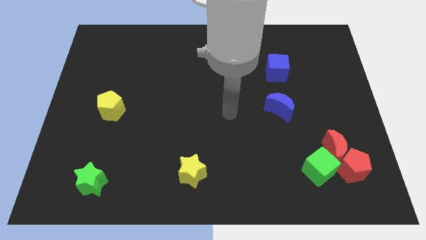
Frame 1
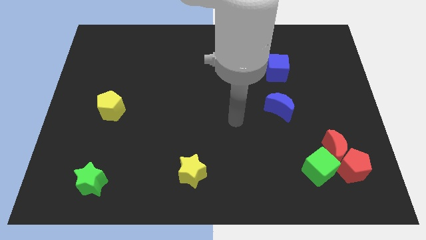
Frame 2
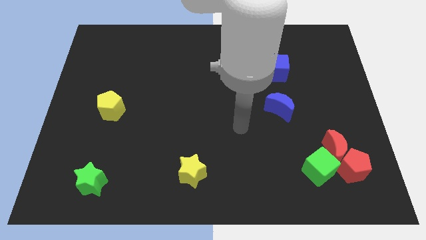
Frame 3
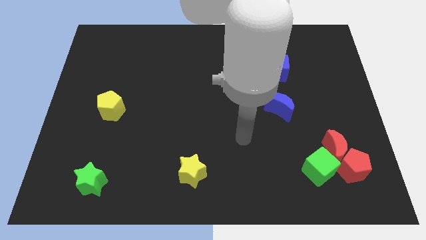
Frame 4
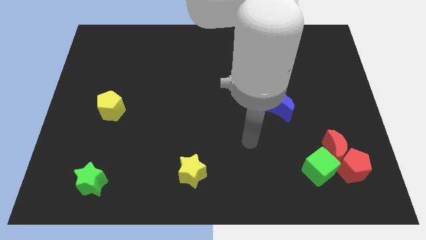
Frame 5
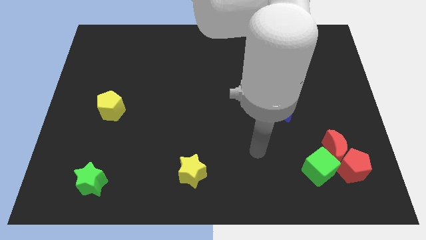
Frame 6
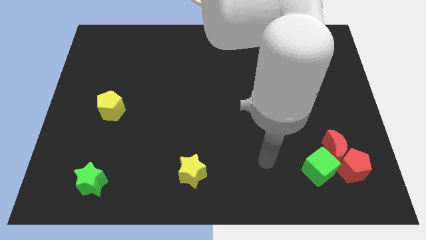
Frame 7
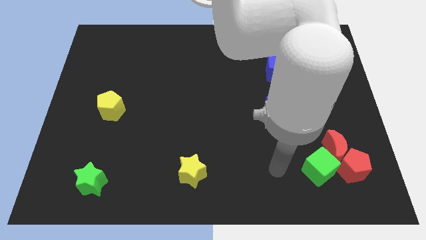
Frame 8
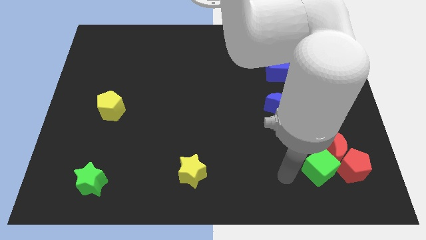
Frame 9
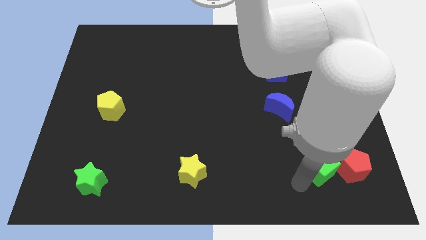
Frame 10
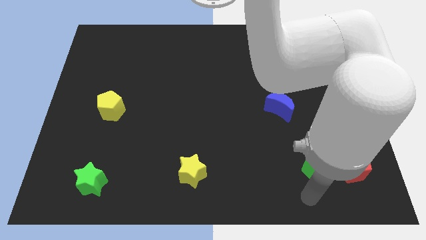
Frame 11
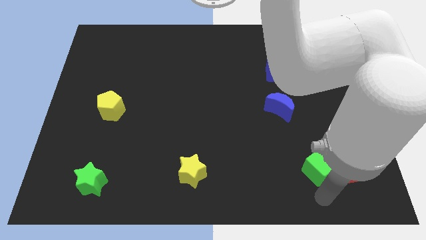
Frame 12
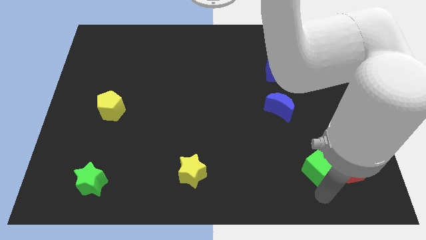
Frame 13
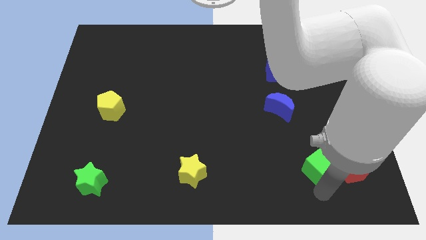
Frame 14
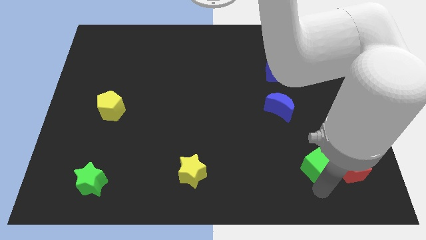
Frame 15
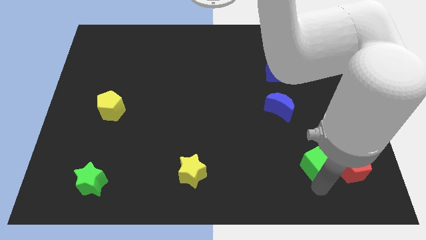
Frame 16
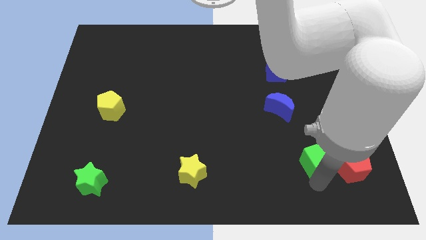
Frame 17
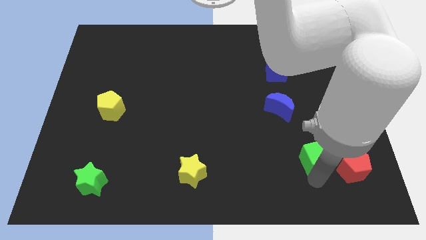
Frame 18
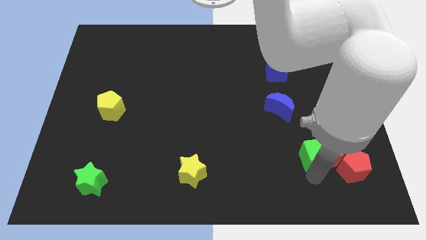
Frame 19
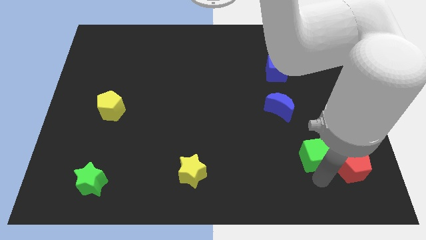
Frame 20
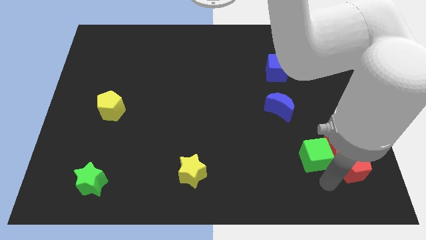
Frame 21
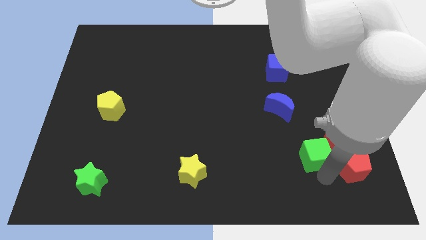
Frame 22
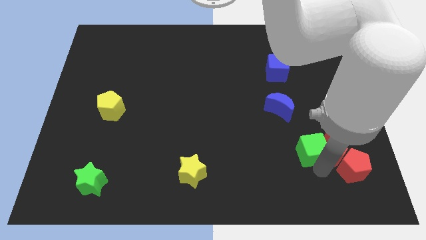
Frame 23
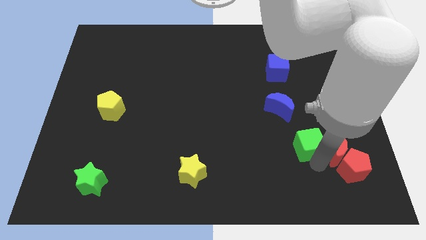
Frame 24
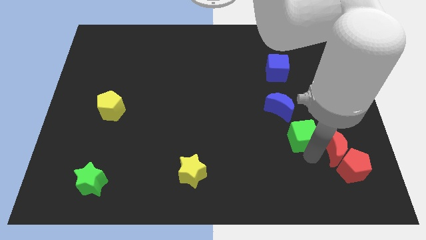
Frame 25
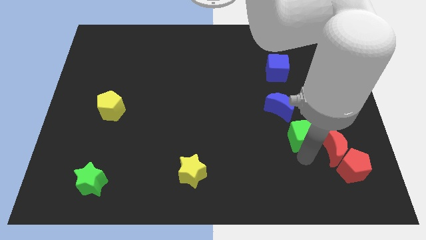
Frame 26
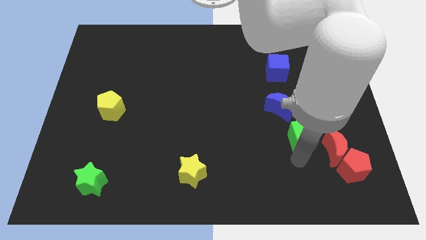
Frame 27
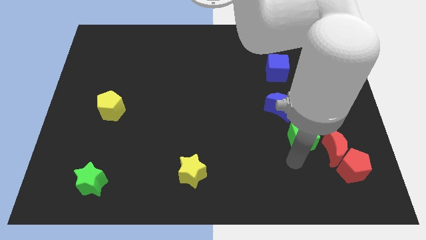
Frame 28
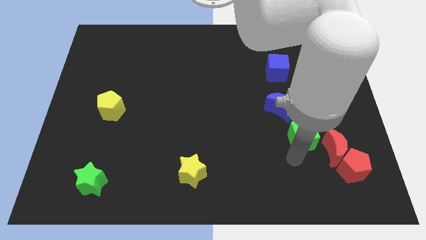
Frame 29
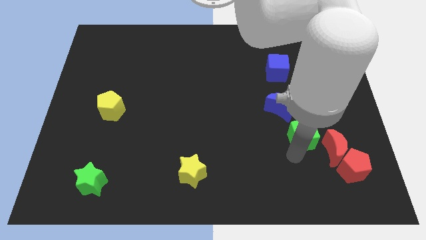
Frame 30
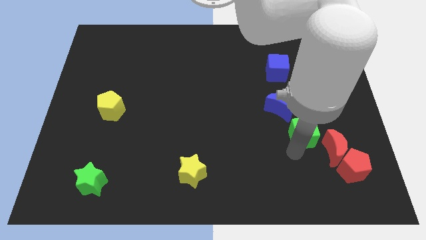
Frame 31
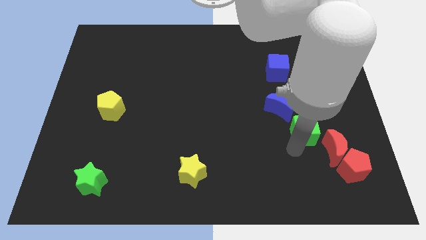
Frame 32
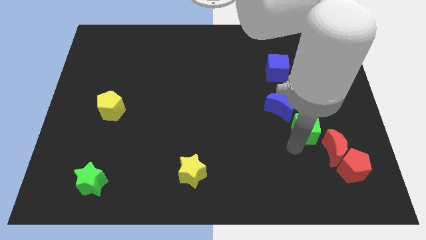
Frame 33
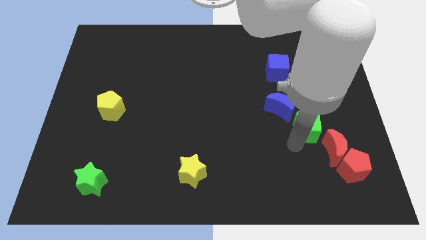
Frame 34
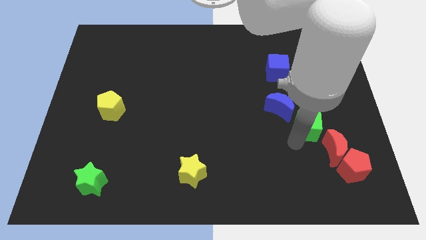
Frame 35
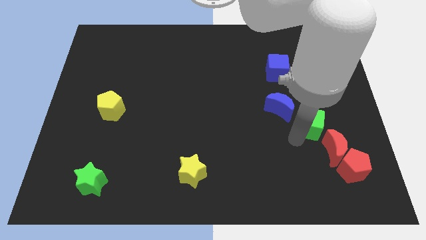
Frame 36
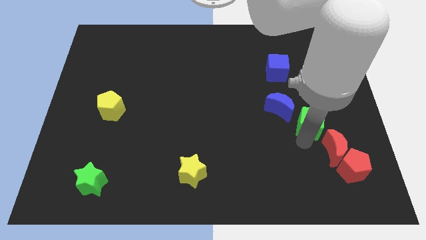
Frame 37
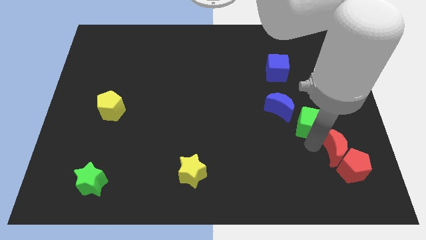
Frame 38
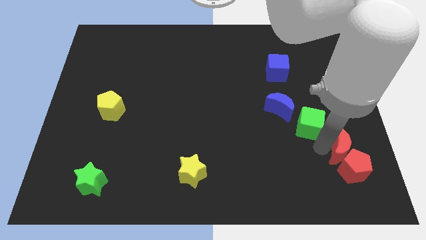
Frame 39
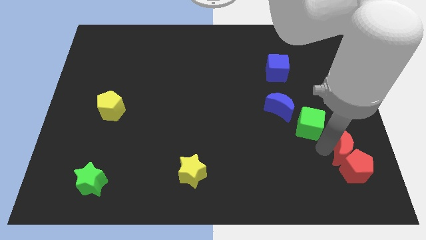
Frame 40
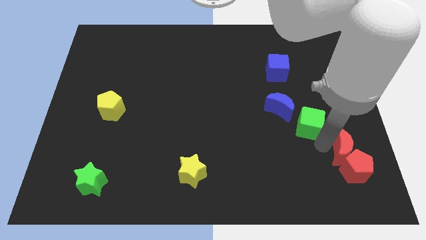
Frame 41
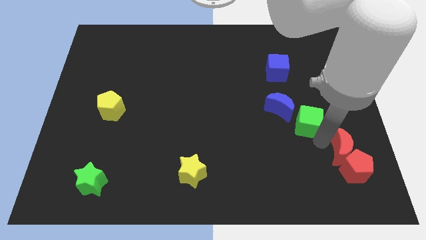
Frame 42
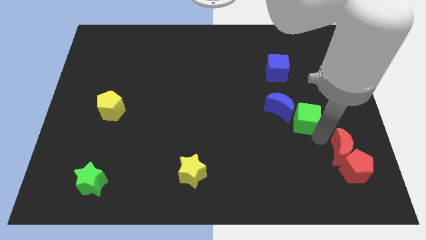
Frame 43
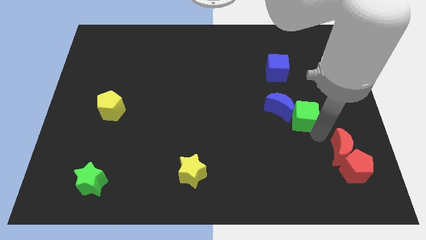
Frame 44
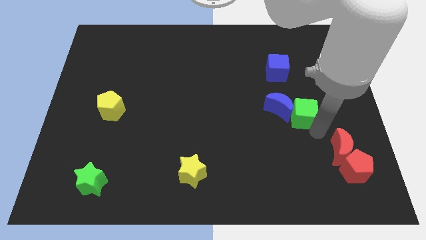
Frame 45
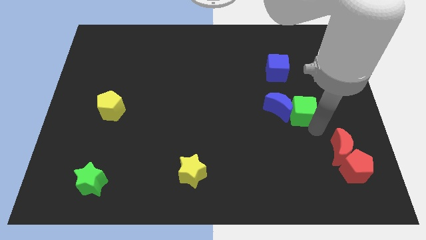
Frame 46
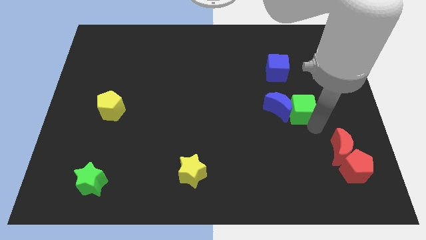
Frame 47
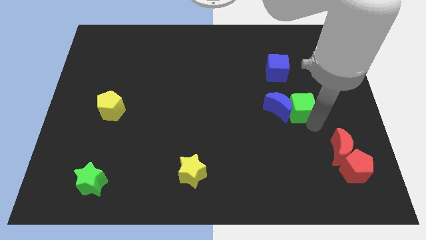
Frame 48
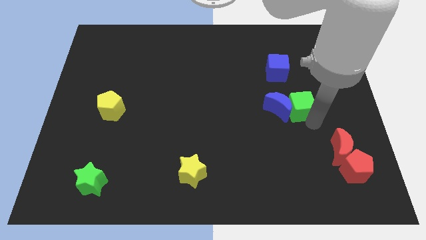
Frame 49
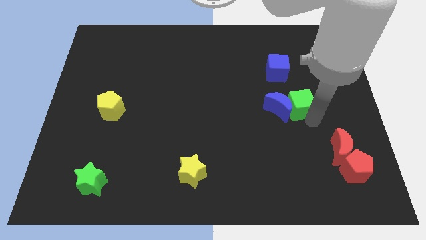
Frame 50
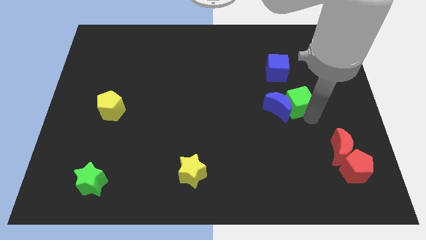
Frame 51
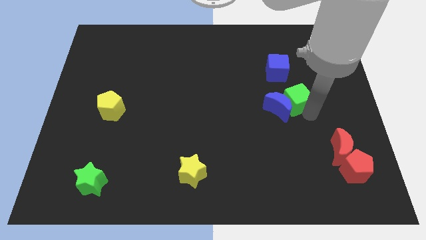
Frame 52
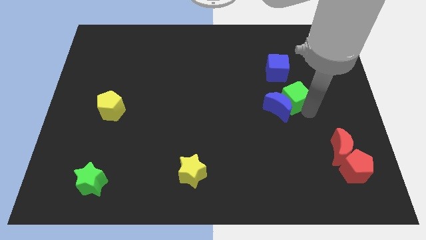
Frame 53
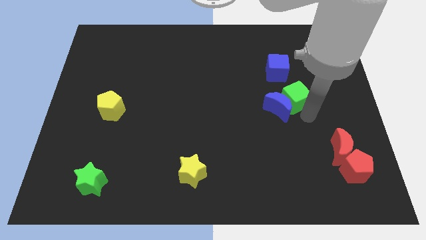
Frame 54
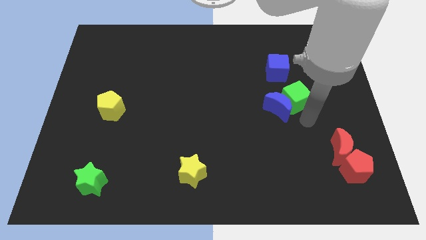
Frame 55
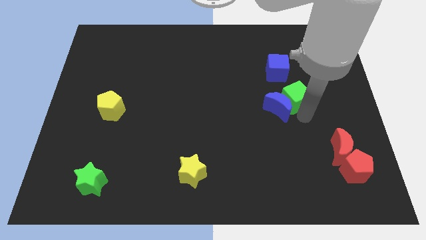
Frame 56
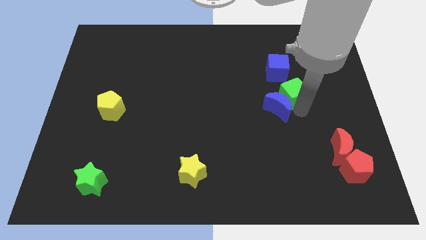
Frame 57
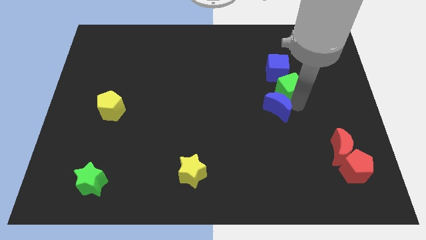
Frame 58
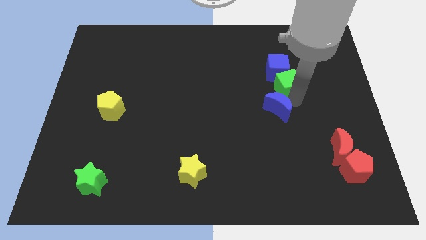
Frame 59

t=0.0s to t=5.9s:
push the green cube towards the blue cube
